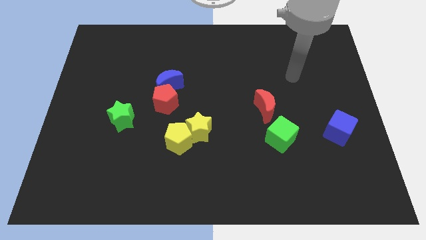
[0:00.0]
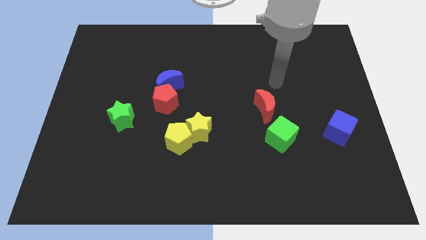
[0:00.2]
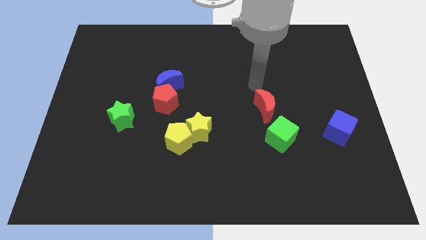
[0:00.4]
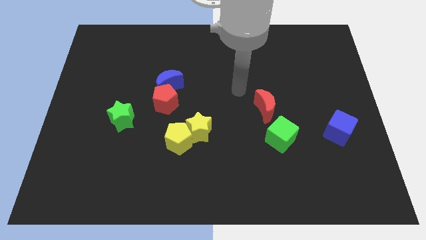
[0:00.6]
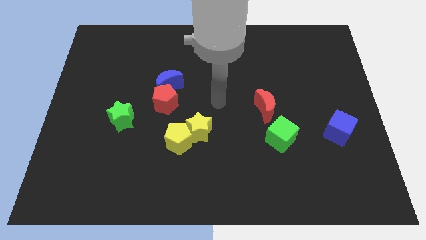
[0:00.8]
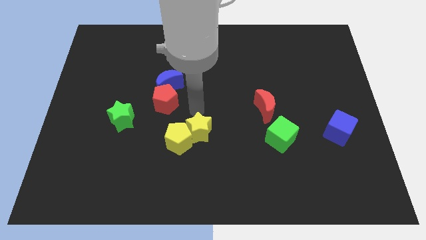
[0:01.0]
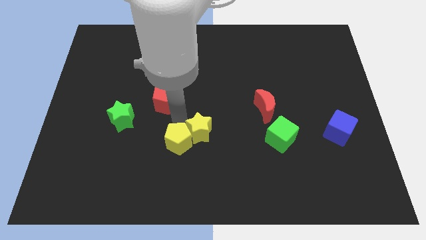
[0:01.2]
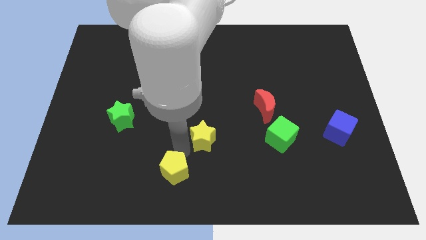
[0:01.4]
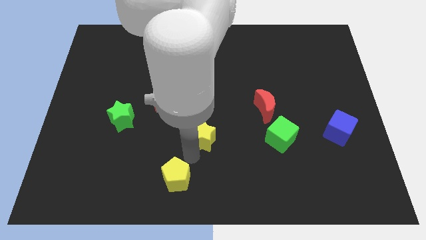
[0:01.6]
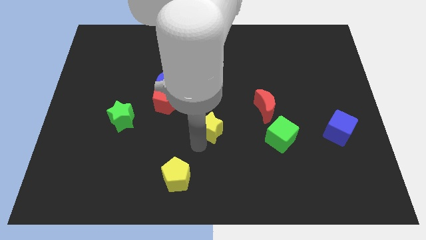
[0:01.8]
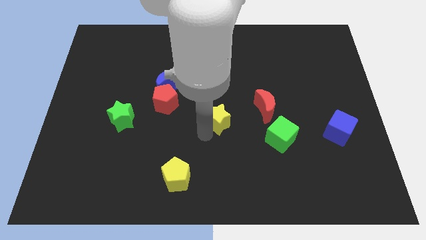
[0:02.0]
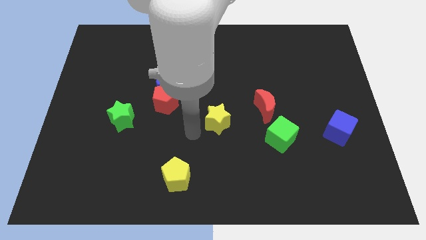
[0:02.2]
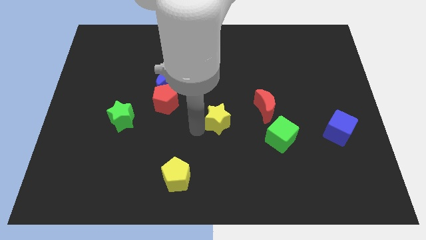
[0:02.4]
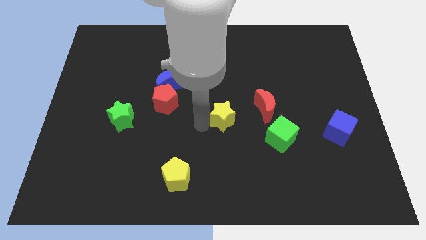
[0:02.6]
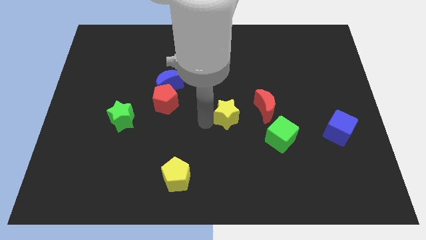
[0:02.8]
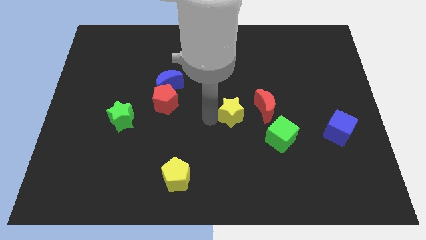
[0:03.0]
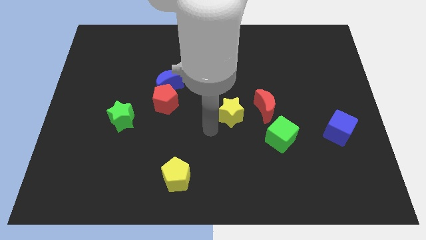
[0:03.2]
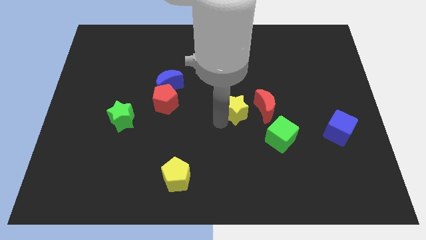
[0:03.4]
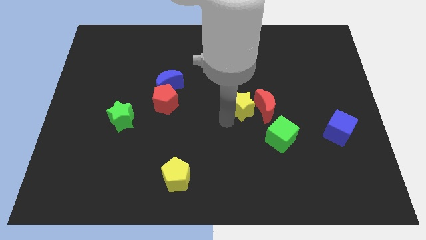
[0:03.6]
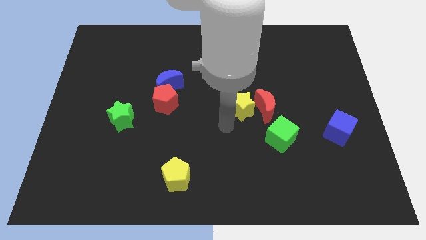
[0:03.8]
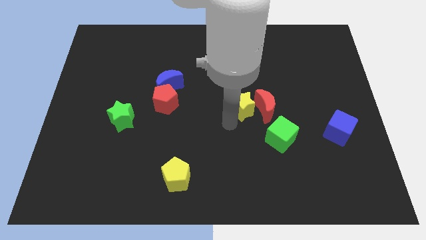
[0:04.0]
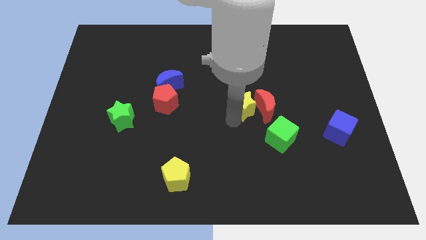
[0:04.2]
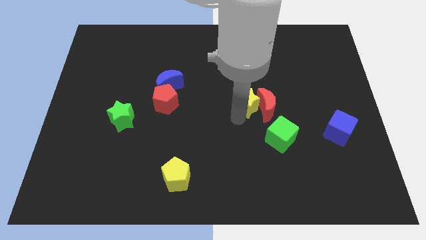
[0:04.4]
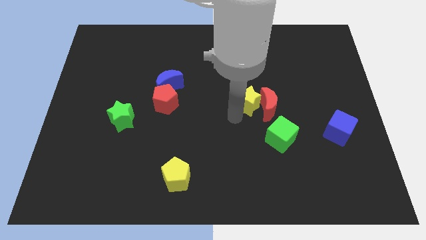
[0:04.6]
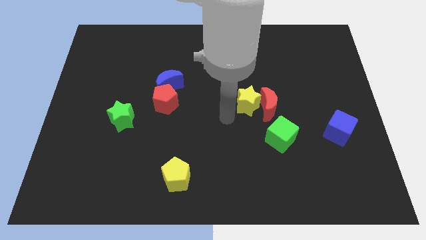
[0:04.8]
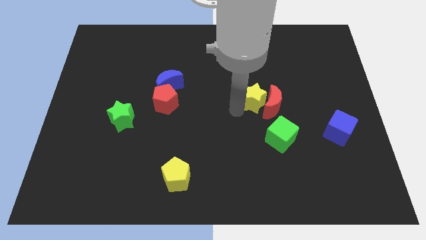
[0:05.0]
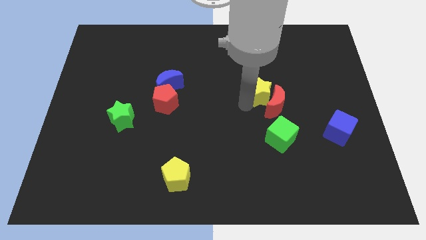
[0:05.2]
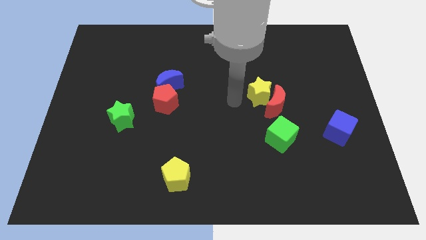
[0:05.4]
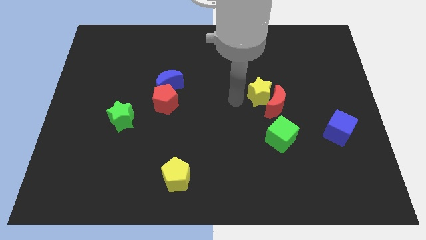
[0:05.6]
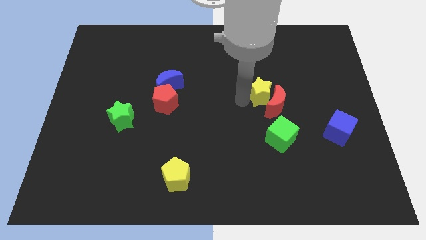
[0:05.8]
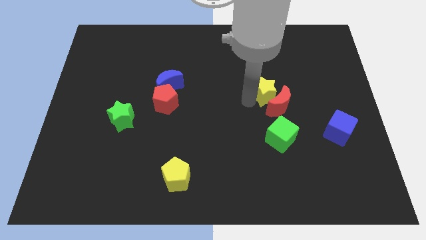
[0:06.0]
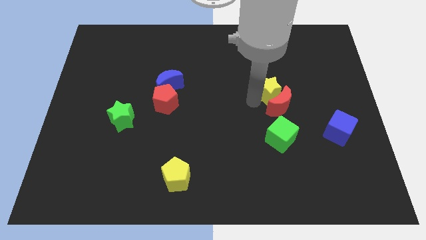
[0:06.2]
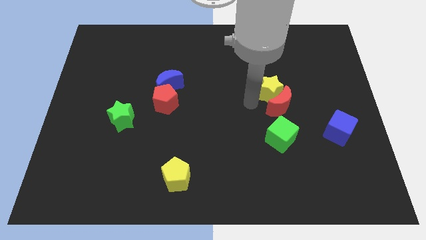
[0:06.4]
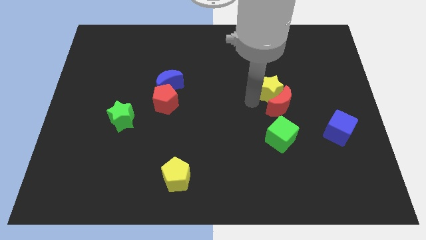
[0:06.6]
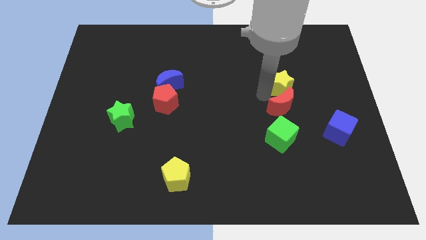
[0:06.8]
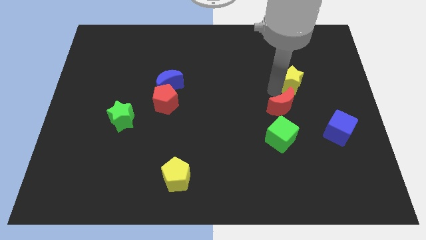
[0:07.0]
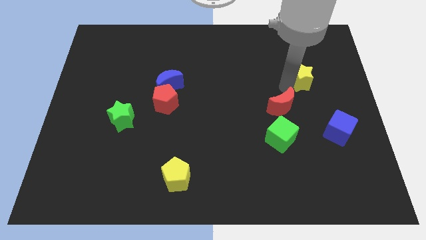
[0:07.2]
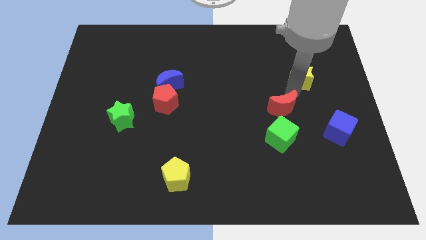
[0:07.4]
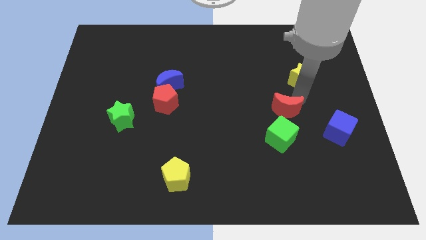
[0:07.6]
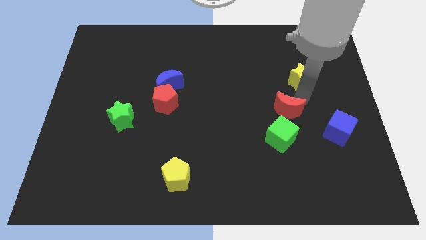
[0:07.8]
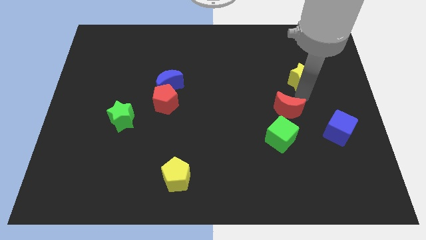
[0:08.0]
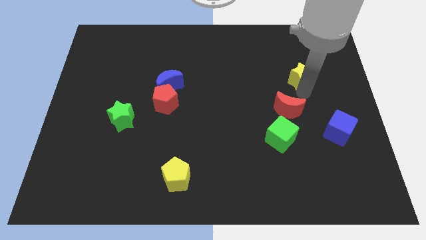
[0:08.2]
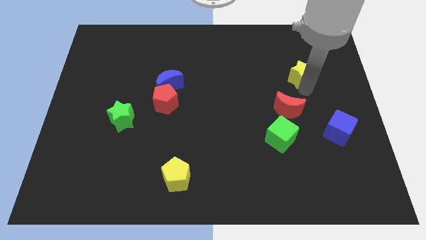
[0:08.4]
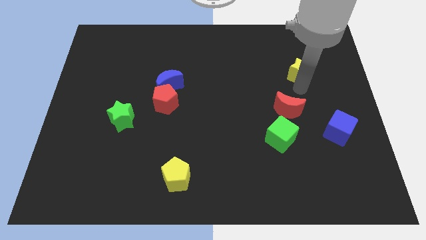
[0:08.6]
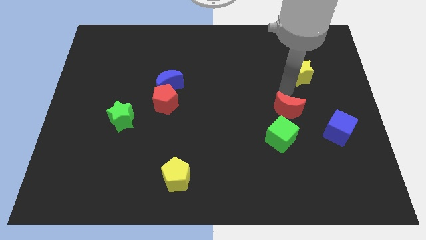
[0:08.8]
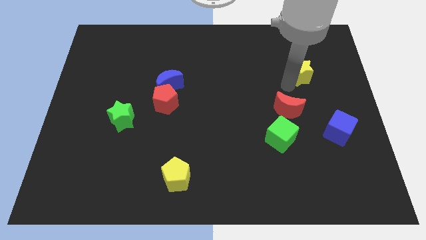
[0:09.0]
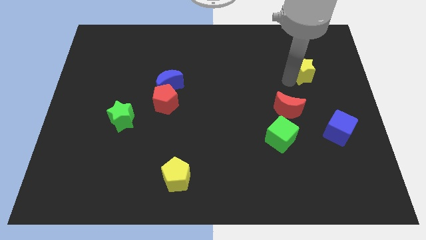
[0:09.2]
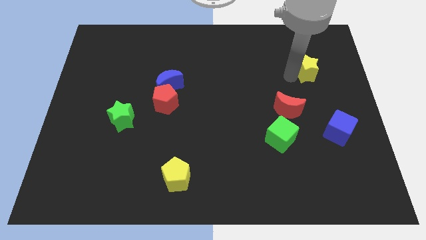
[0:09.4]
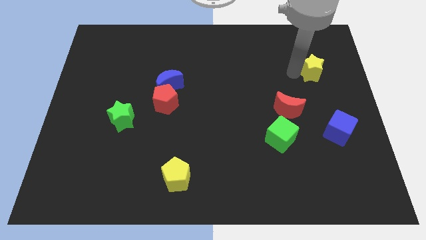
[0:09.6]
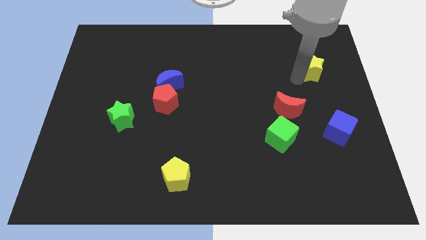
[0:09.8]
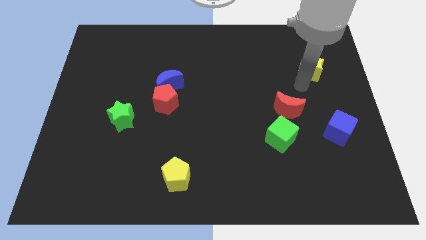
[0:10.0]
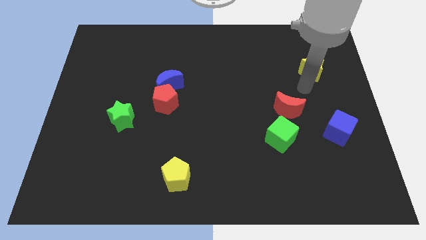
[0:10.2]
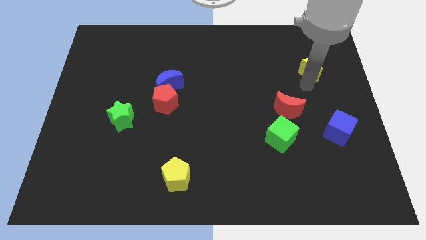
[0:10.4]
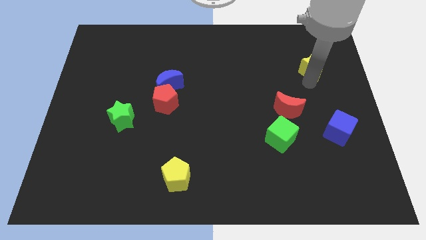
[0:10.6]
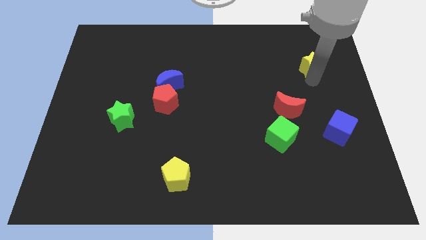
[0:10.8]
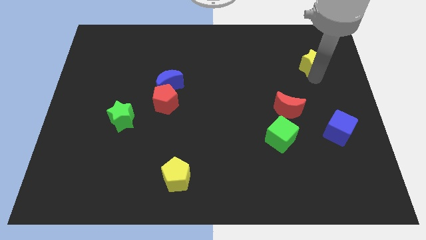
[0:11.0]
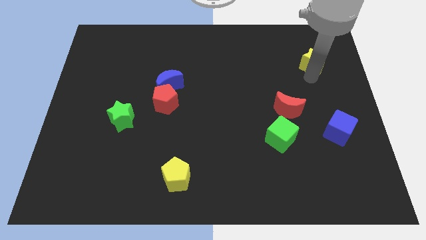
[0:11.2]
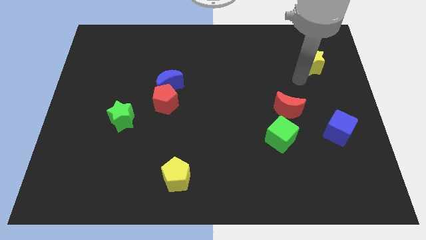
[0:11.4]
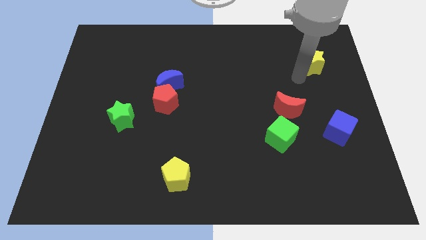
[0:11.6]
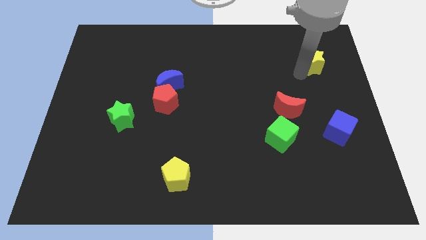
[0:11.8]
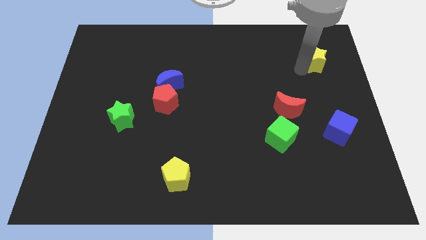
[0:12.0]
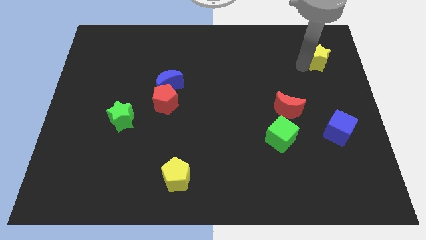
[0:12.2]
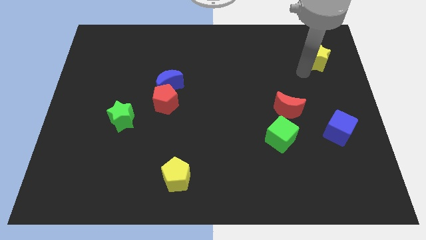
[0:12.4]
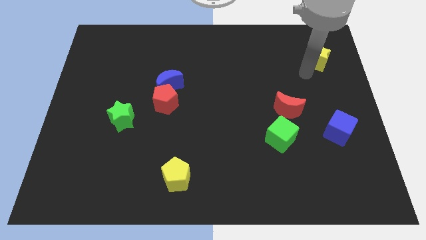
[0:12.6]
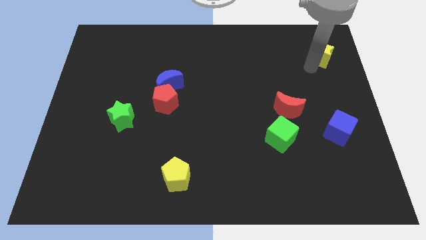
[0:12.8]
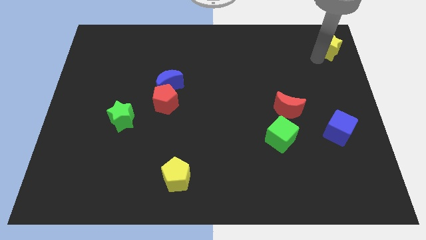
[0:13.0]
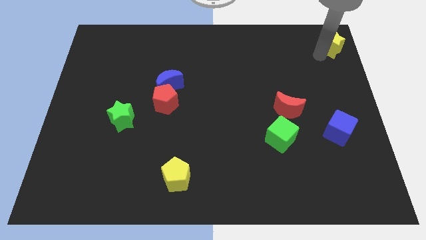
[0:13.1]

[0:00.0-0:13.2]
put the yellow star to the top right

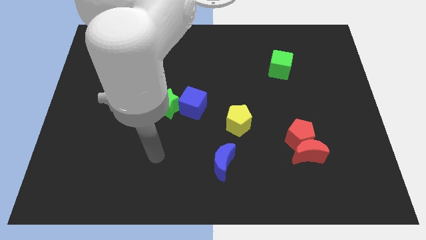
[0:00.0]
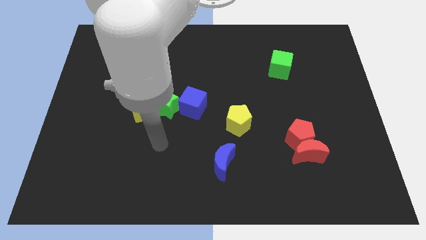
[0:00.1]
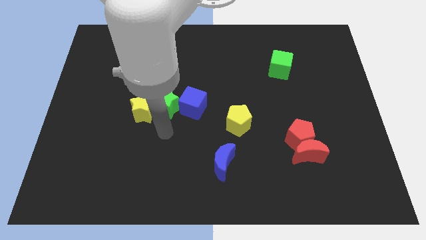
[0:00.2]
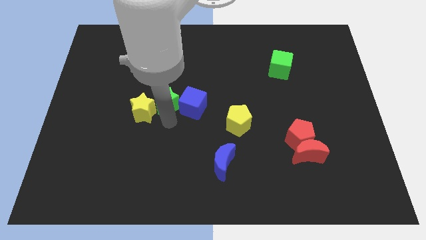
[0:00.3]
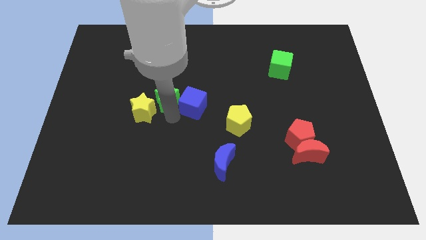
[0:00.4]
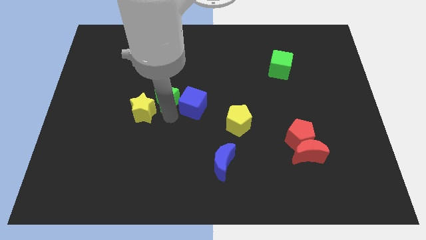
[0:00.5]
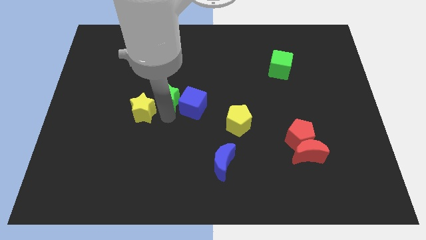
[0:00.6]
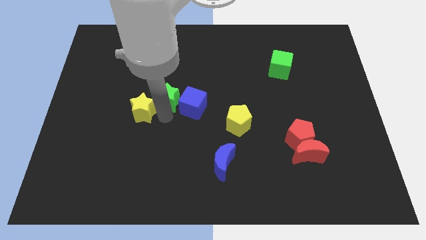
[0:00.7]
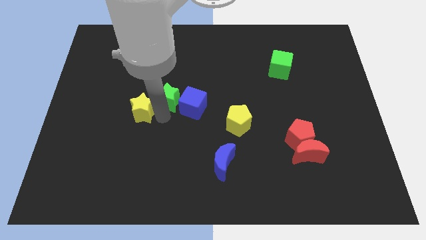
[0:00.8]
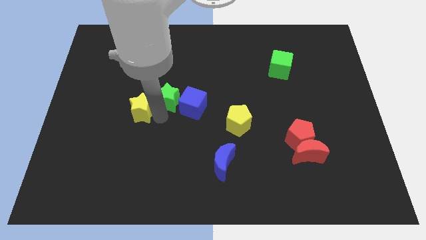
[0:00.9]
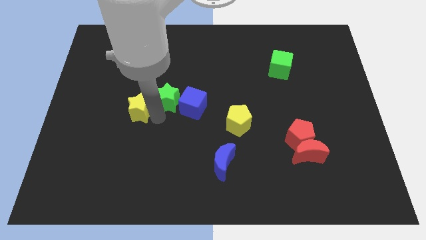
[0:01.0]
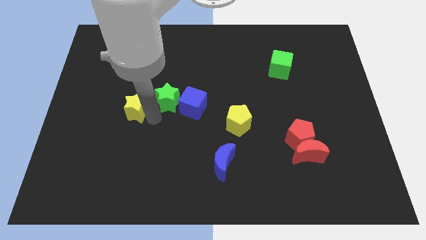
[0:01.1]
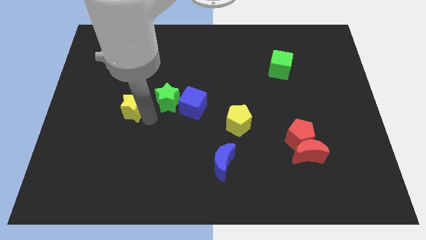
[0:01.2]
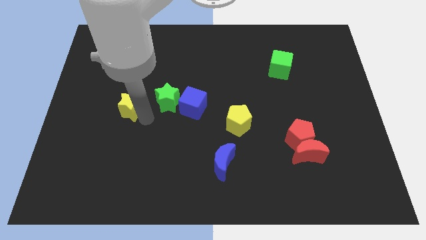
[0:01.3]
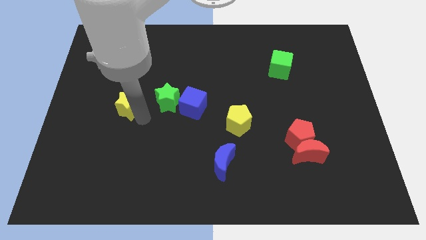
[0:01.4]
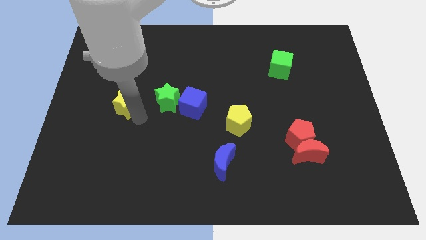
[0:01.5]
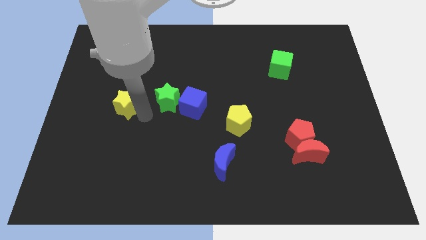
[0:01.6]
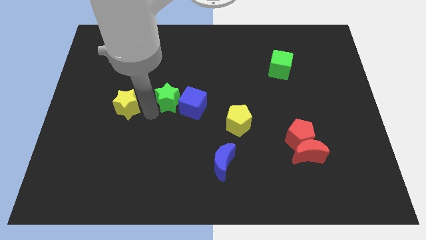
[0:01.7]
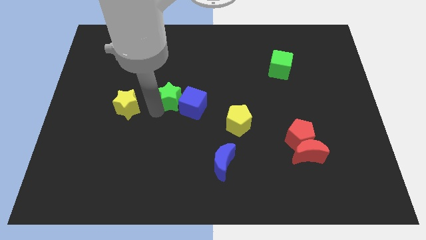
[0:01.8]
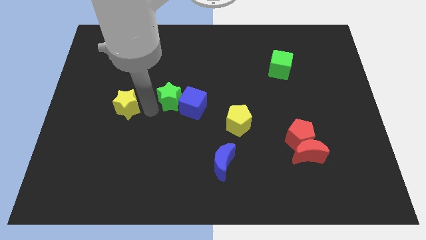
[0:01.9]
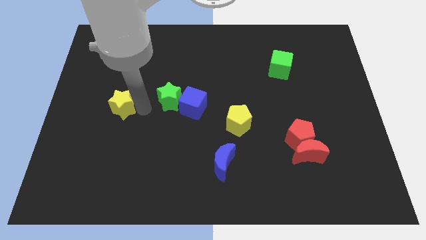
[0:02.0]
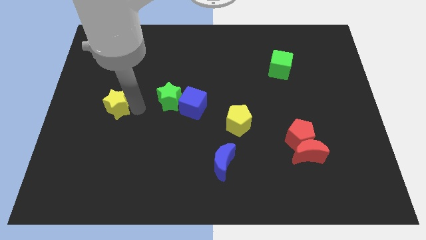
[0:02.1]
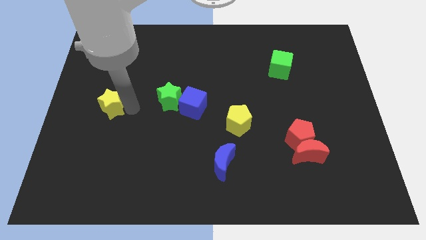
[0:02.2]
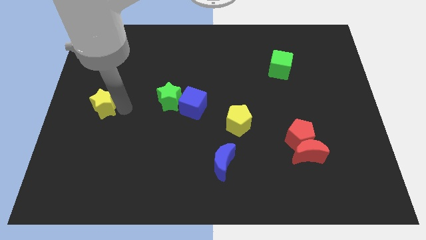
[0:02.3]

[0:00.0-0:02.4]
put the yellow star to the left side
